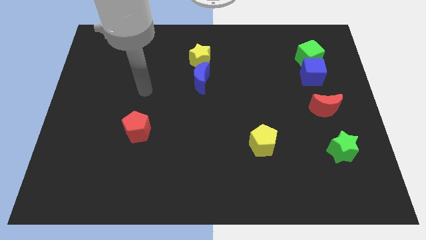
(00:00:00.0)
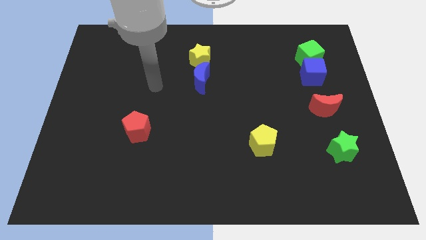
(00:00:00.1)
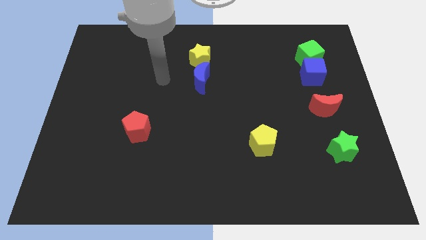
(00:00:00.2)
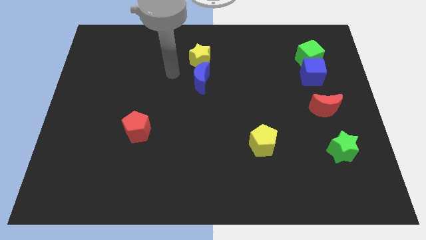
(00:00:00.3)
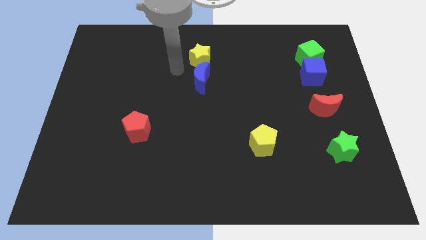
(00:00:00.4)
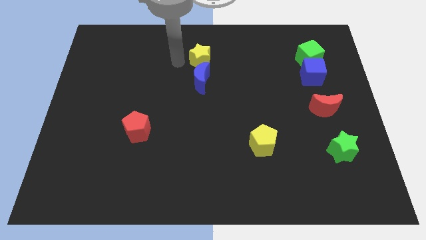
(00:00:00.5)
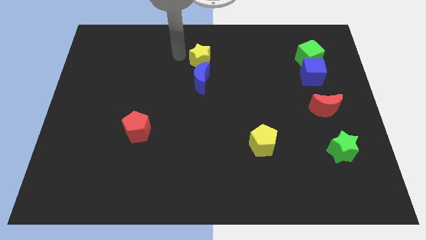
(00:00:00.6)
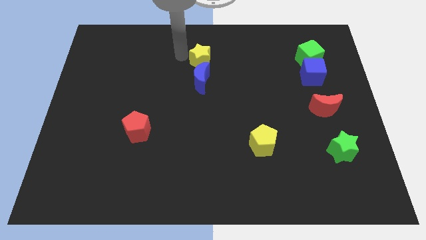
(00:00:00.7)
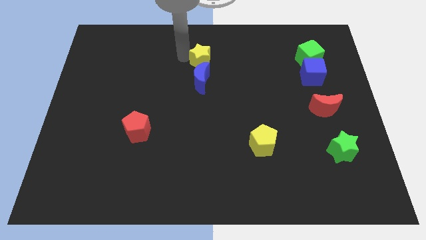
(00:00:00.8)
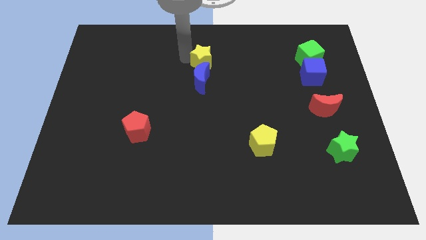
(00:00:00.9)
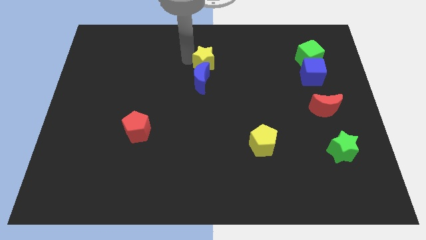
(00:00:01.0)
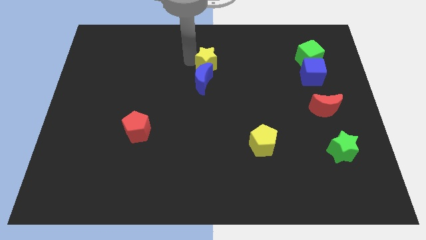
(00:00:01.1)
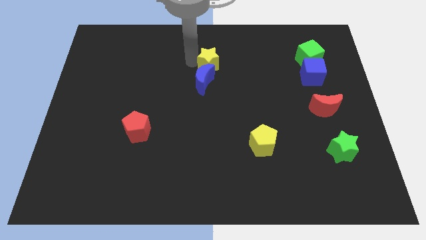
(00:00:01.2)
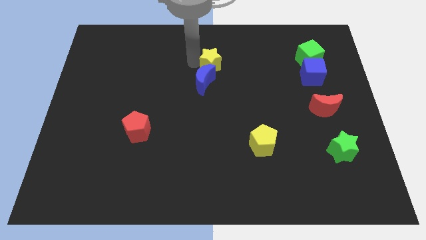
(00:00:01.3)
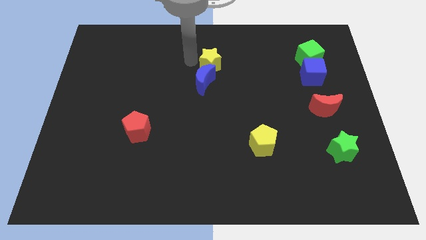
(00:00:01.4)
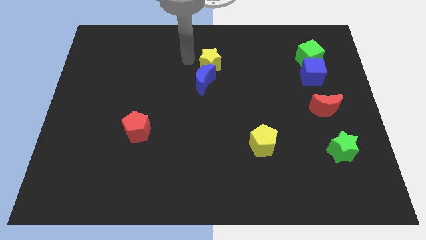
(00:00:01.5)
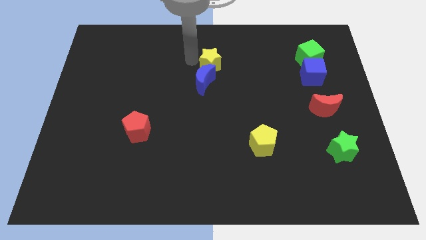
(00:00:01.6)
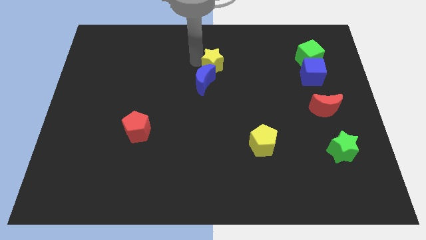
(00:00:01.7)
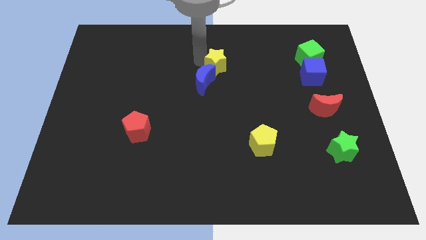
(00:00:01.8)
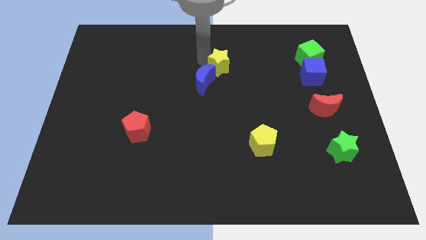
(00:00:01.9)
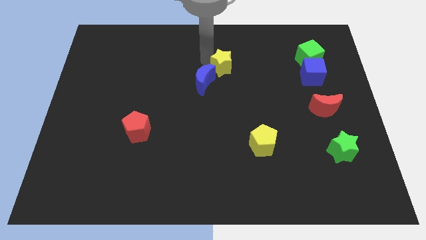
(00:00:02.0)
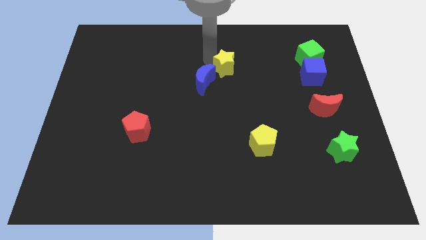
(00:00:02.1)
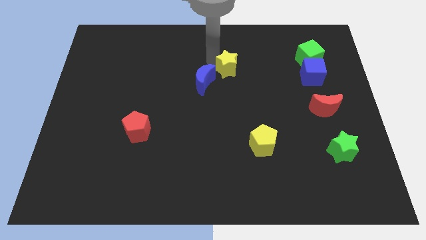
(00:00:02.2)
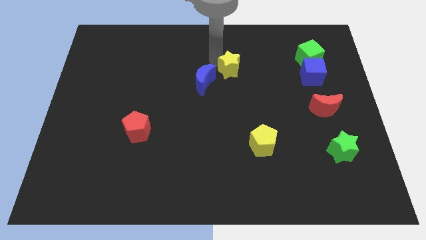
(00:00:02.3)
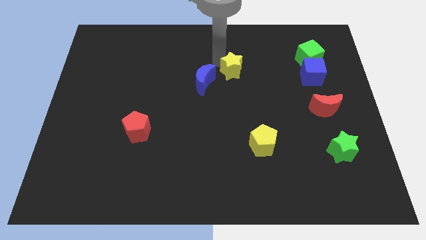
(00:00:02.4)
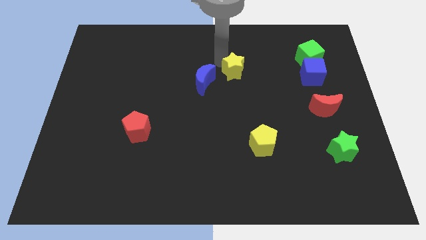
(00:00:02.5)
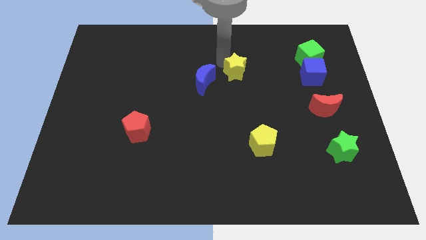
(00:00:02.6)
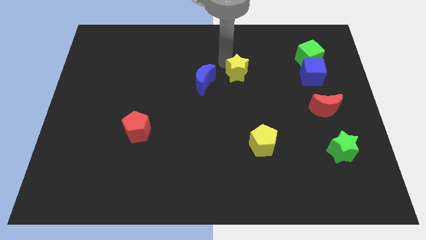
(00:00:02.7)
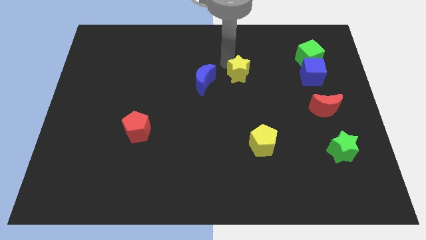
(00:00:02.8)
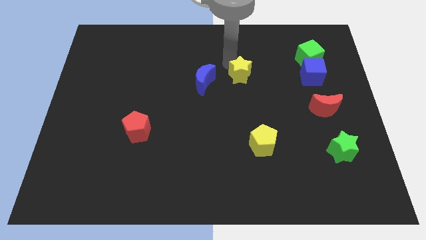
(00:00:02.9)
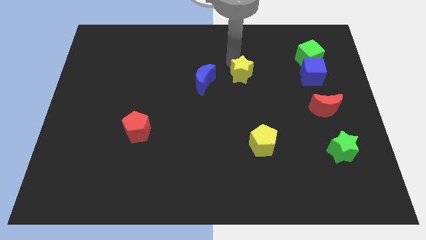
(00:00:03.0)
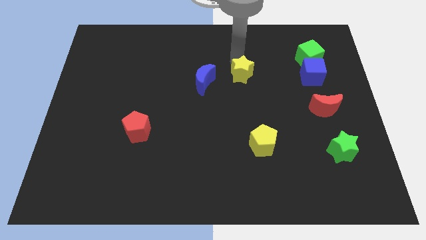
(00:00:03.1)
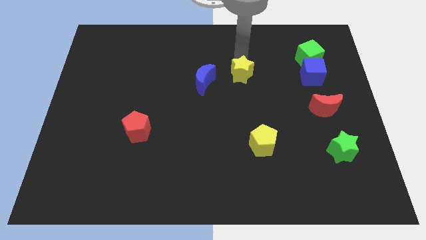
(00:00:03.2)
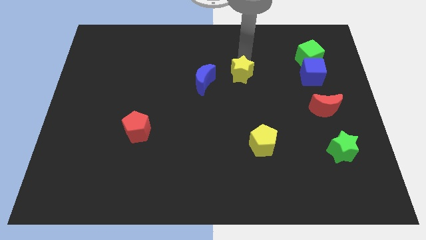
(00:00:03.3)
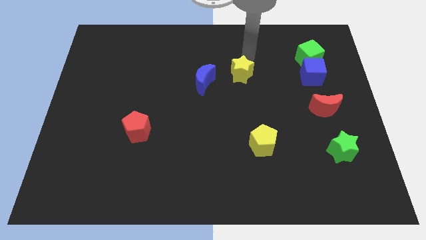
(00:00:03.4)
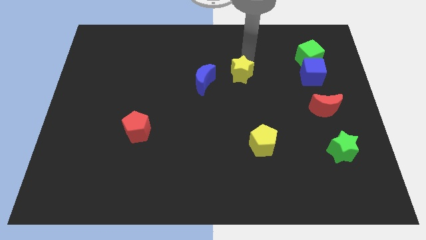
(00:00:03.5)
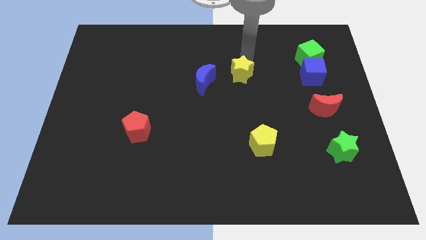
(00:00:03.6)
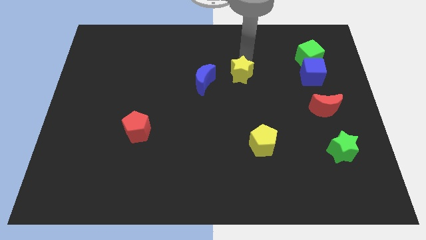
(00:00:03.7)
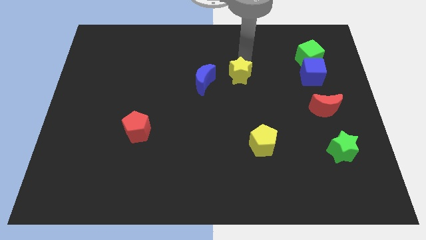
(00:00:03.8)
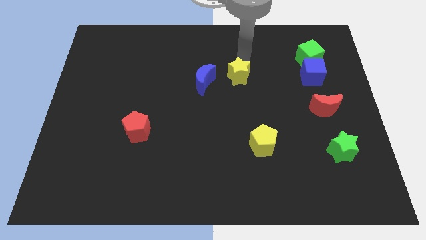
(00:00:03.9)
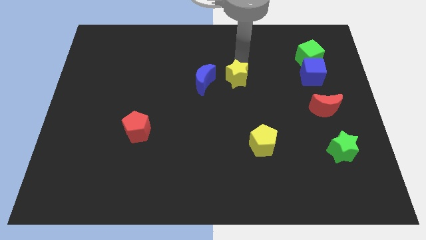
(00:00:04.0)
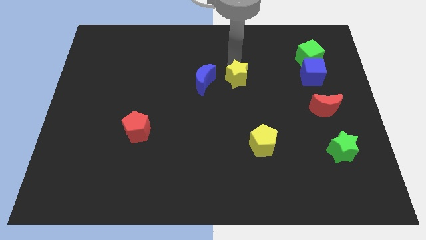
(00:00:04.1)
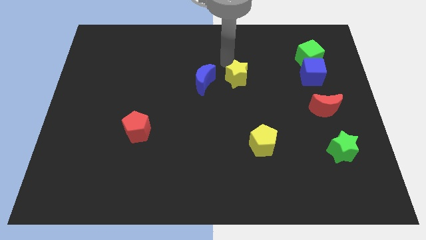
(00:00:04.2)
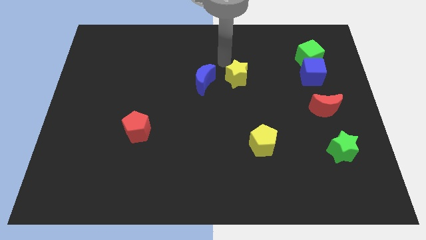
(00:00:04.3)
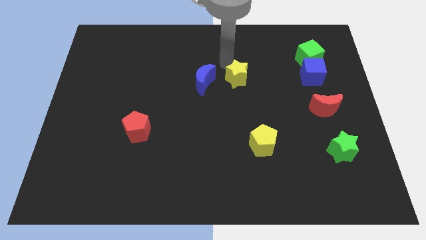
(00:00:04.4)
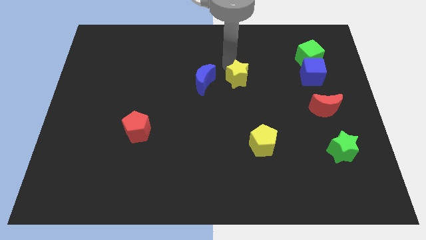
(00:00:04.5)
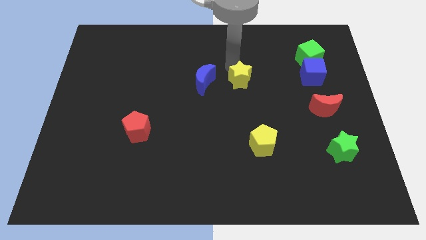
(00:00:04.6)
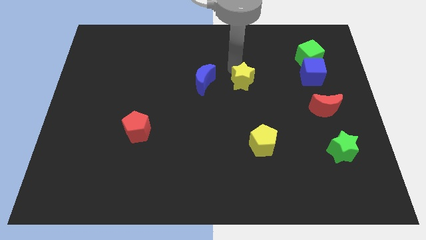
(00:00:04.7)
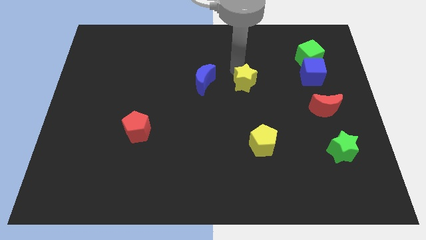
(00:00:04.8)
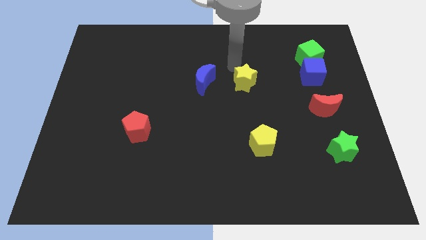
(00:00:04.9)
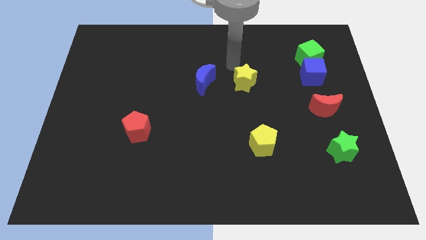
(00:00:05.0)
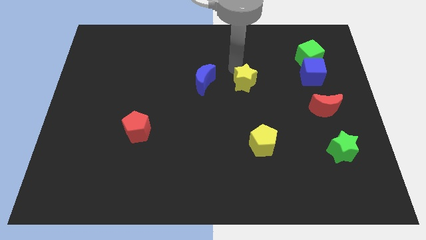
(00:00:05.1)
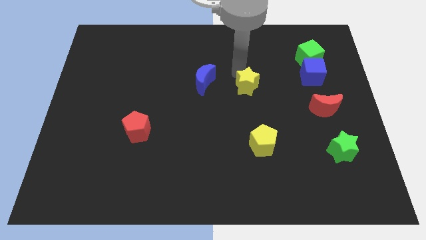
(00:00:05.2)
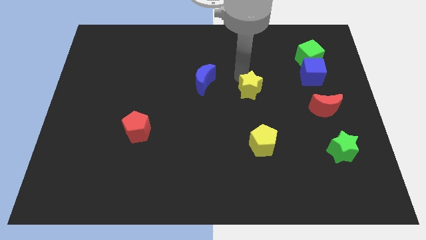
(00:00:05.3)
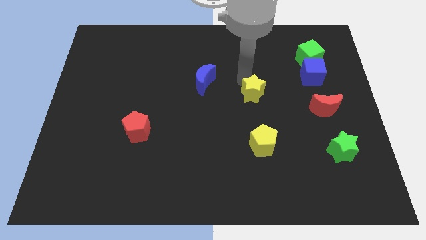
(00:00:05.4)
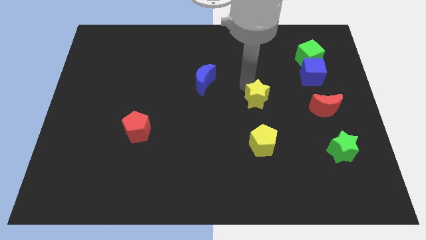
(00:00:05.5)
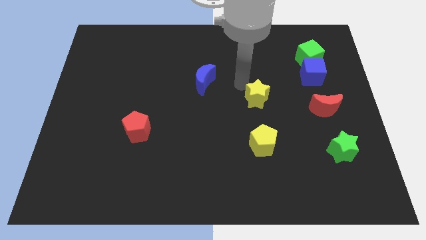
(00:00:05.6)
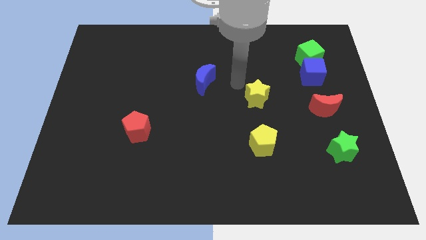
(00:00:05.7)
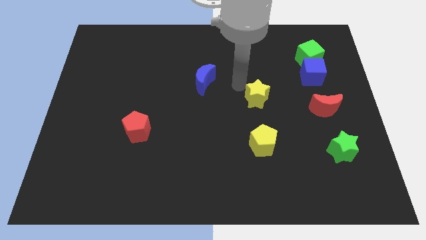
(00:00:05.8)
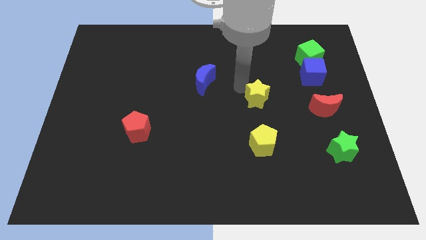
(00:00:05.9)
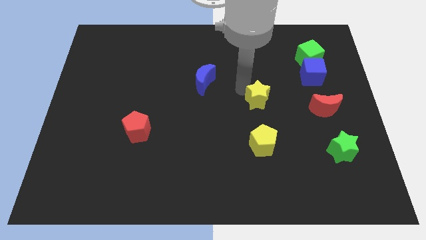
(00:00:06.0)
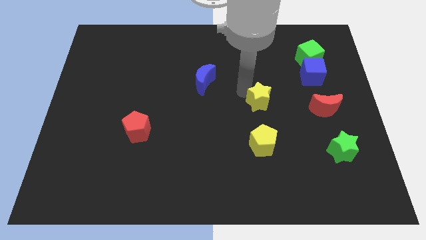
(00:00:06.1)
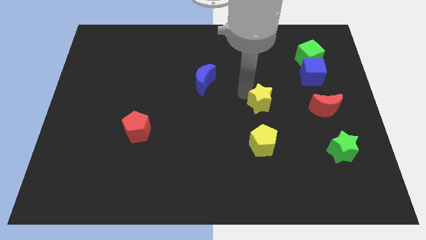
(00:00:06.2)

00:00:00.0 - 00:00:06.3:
move the yellow star down and to the right diagonally

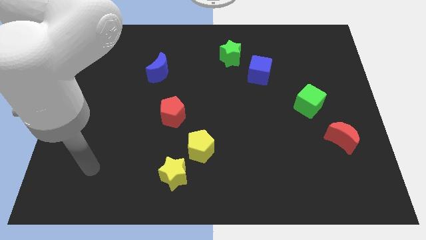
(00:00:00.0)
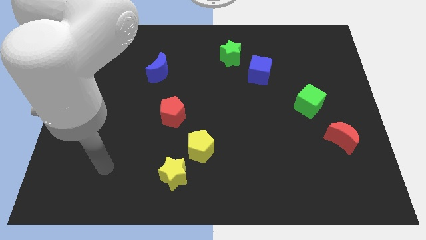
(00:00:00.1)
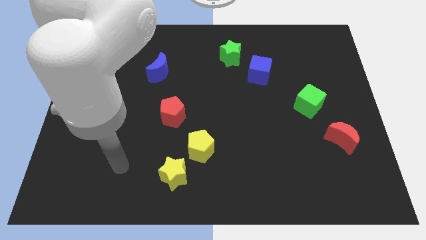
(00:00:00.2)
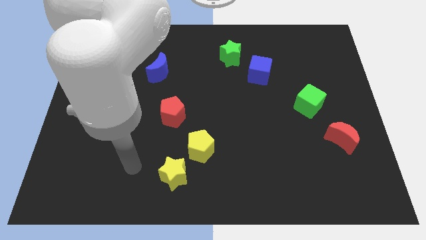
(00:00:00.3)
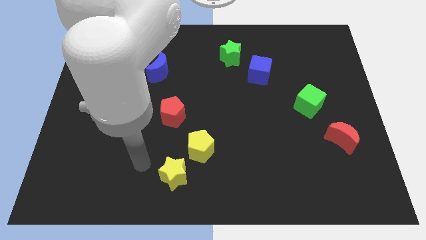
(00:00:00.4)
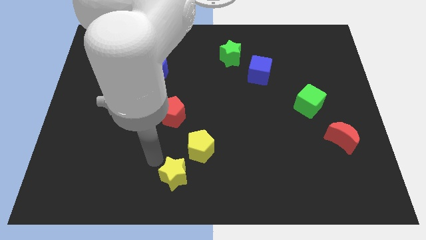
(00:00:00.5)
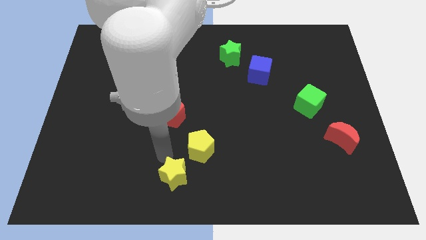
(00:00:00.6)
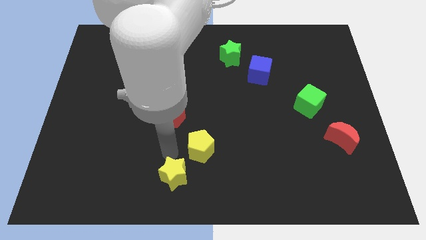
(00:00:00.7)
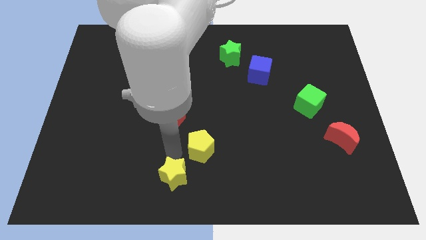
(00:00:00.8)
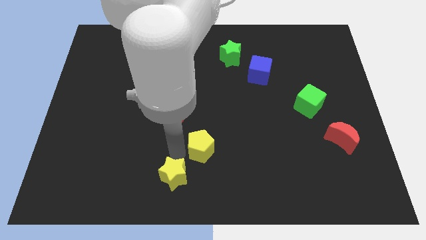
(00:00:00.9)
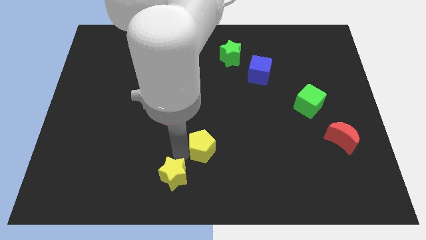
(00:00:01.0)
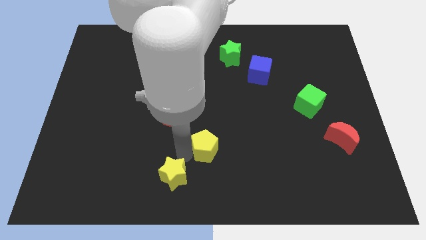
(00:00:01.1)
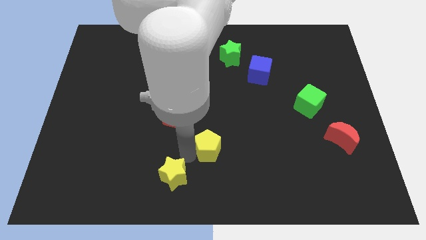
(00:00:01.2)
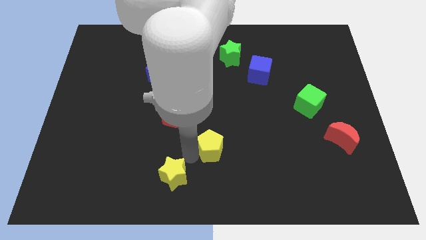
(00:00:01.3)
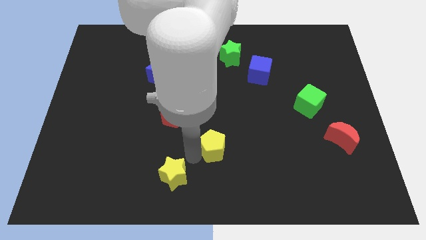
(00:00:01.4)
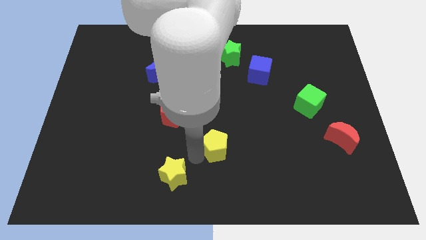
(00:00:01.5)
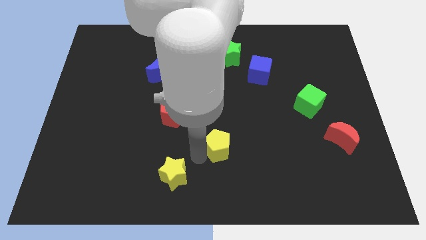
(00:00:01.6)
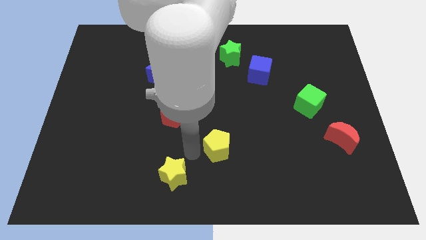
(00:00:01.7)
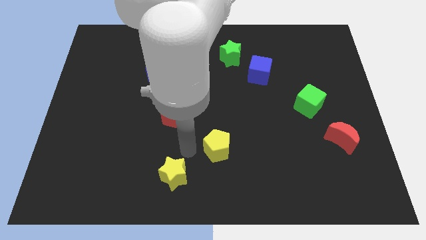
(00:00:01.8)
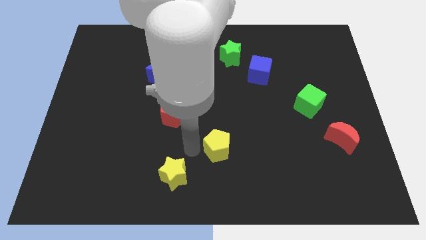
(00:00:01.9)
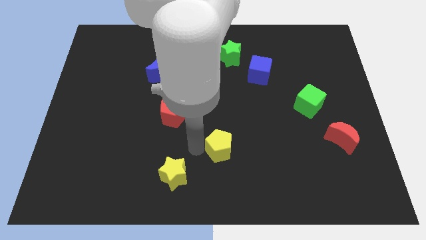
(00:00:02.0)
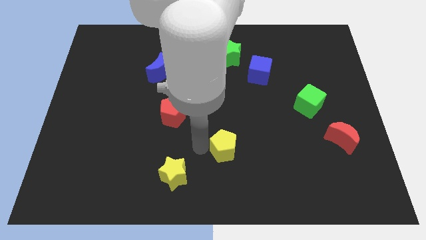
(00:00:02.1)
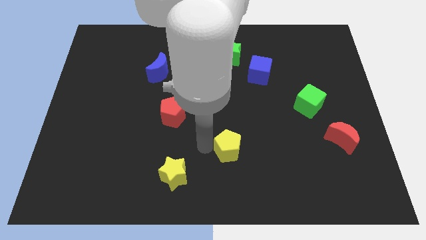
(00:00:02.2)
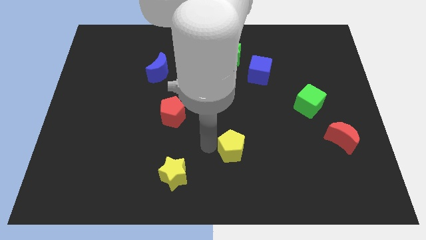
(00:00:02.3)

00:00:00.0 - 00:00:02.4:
push the yellow pentagon a little bit to the right
